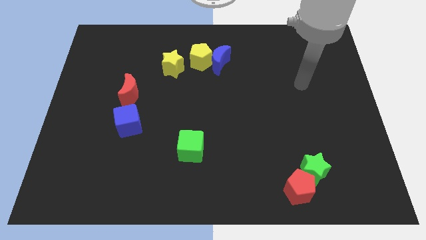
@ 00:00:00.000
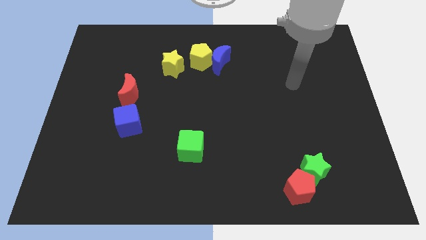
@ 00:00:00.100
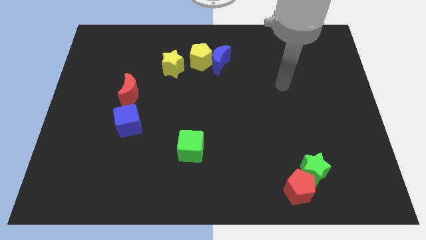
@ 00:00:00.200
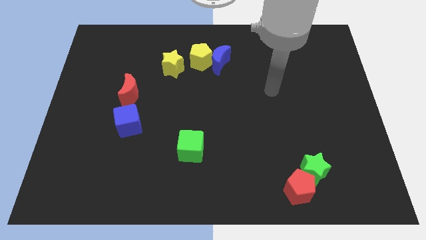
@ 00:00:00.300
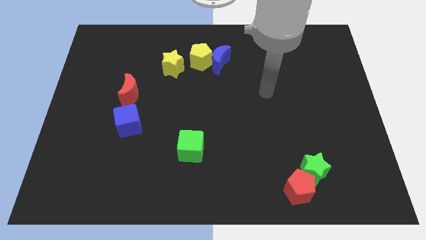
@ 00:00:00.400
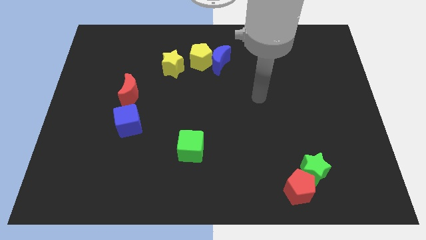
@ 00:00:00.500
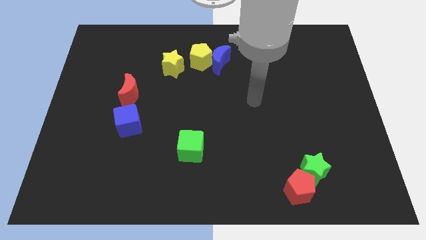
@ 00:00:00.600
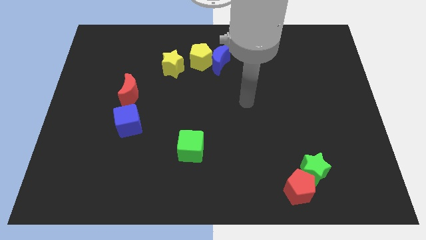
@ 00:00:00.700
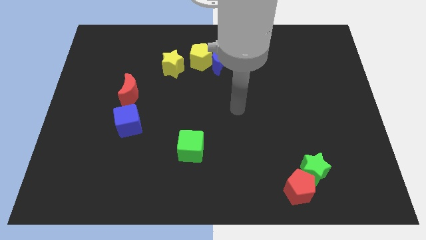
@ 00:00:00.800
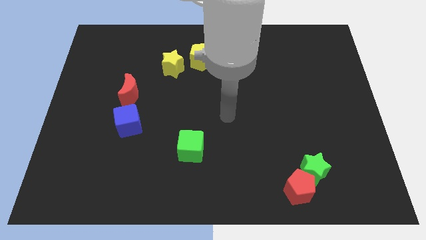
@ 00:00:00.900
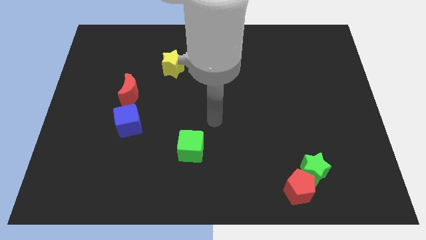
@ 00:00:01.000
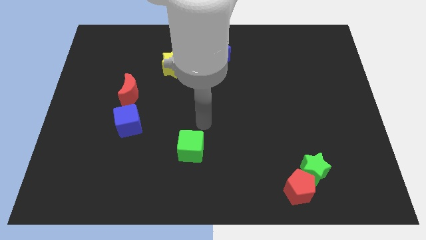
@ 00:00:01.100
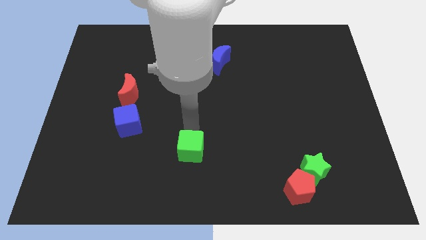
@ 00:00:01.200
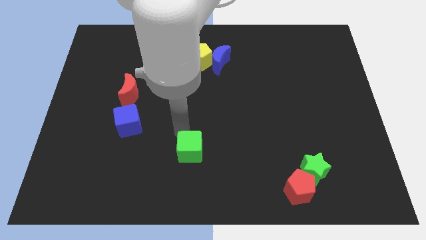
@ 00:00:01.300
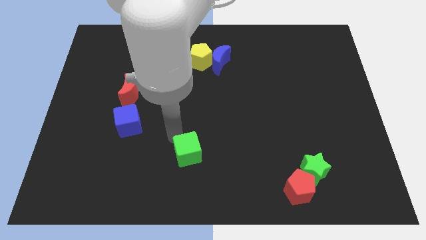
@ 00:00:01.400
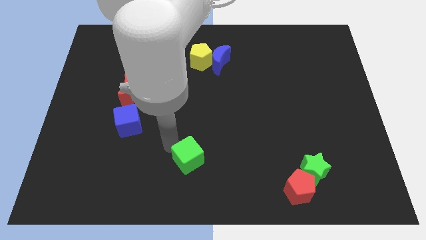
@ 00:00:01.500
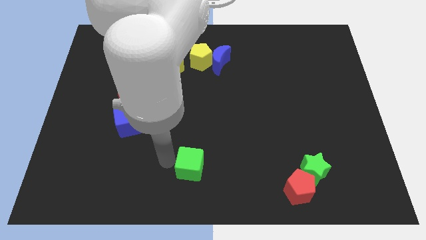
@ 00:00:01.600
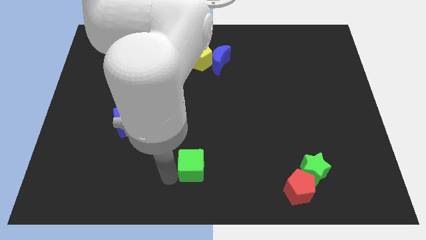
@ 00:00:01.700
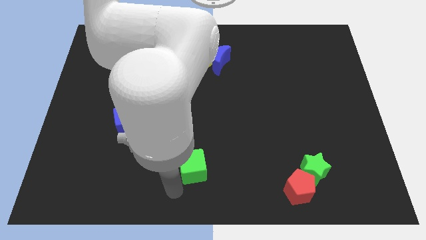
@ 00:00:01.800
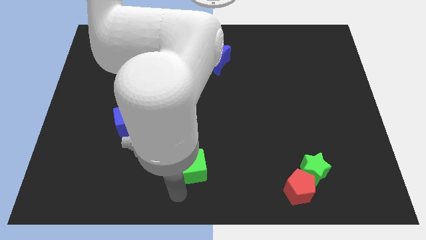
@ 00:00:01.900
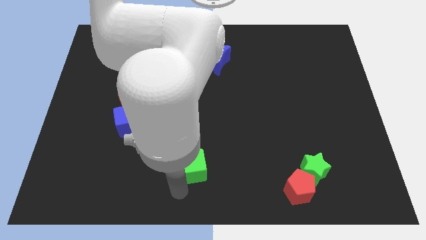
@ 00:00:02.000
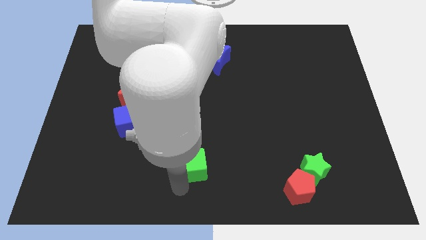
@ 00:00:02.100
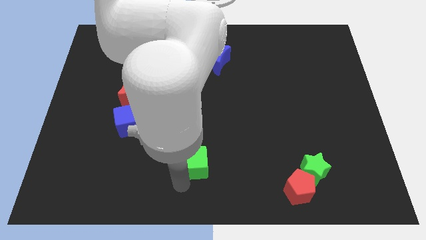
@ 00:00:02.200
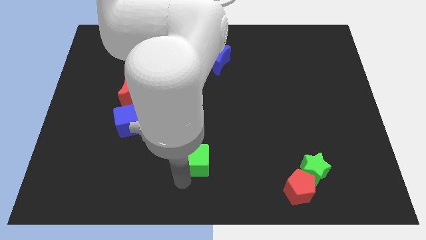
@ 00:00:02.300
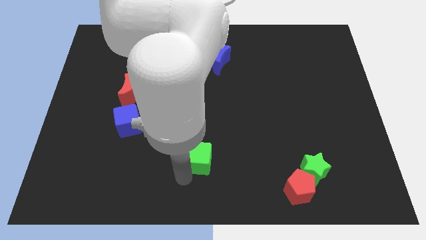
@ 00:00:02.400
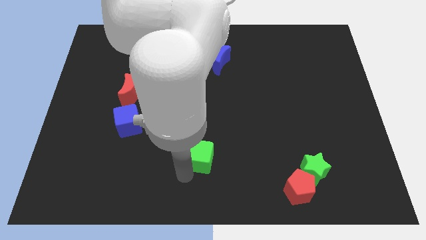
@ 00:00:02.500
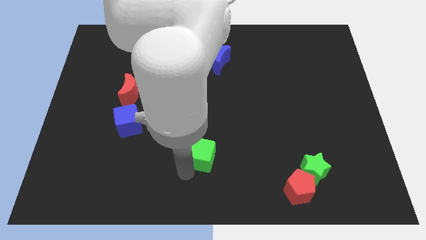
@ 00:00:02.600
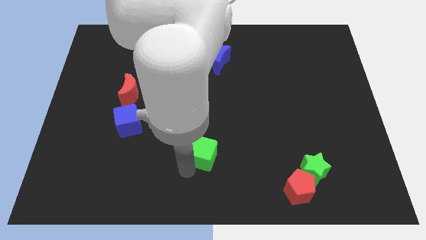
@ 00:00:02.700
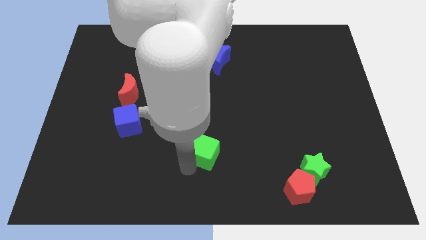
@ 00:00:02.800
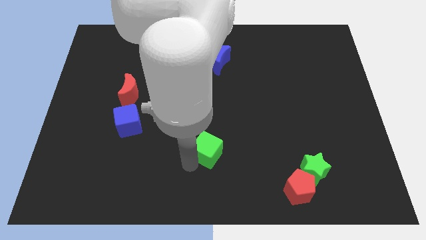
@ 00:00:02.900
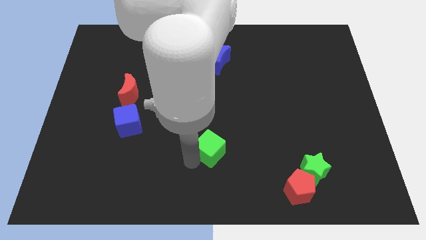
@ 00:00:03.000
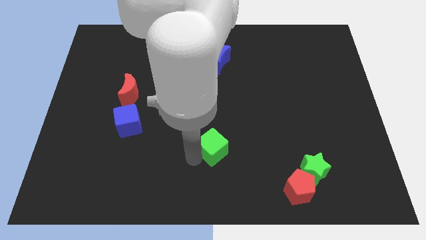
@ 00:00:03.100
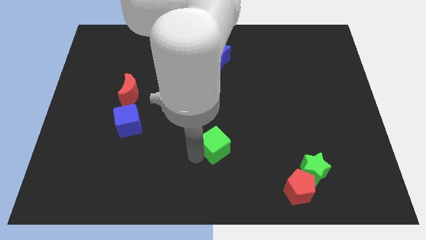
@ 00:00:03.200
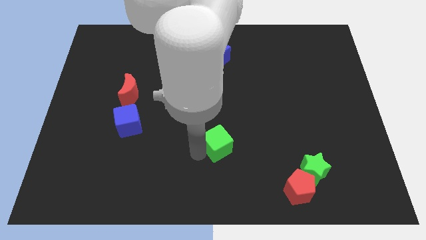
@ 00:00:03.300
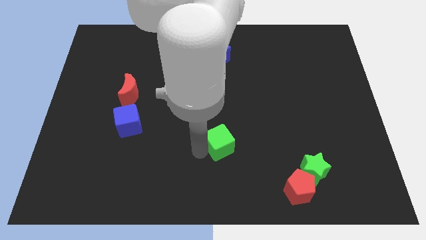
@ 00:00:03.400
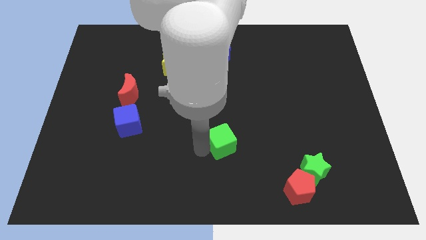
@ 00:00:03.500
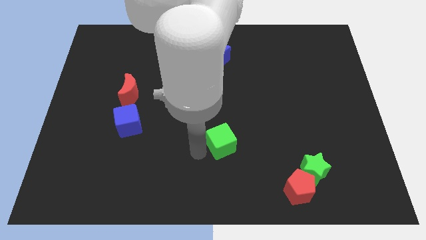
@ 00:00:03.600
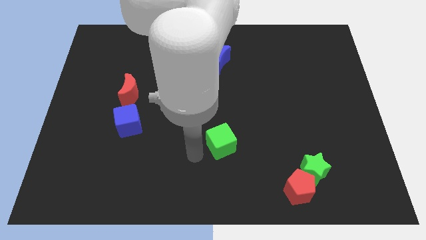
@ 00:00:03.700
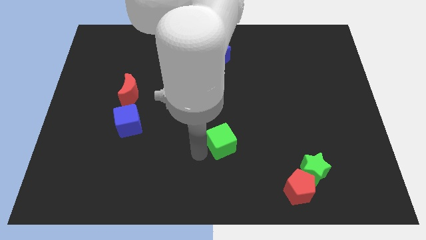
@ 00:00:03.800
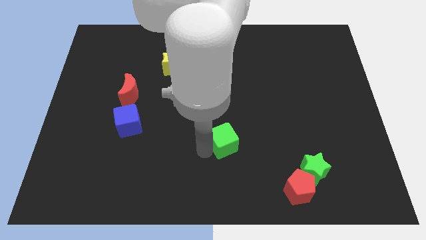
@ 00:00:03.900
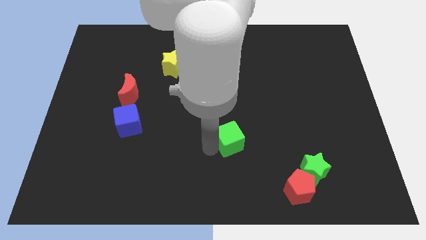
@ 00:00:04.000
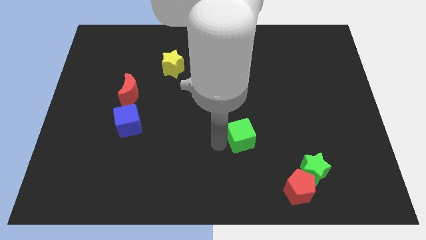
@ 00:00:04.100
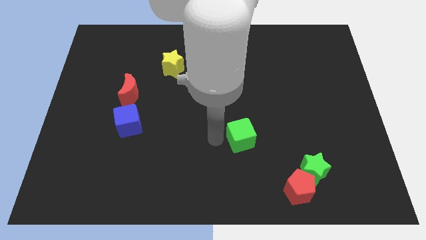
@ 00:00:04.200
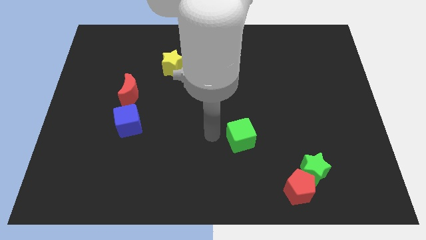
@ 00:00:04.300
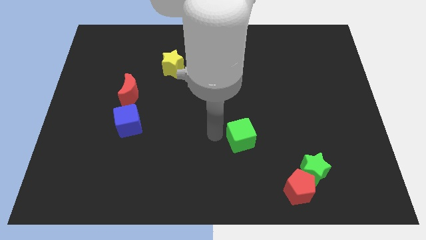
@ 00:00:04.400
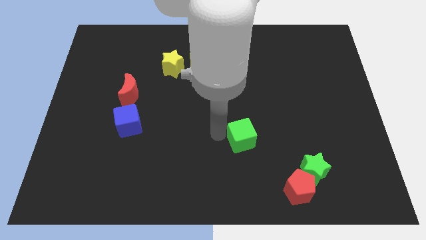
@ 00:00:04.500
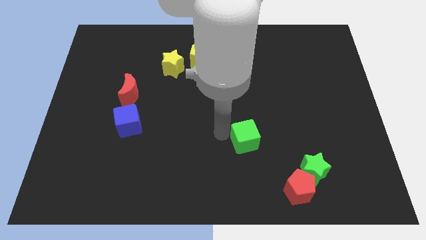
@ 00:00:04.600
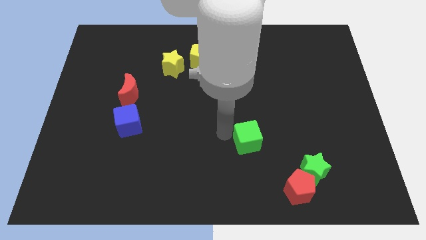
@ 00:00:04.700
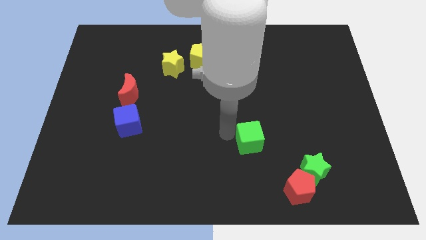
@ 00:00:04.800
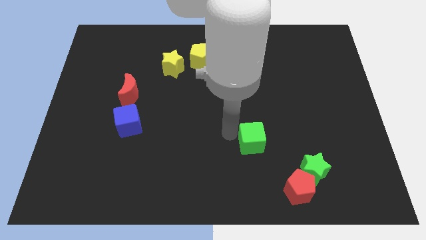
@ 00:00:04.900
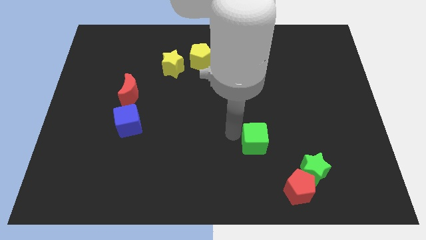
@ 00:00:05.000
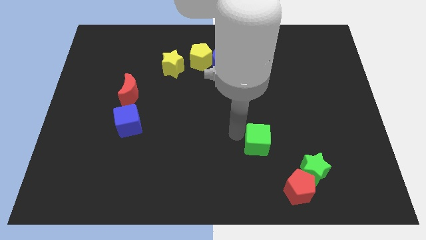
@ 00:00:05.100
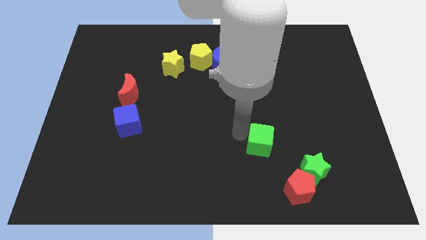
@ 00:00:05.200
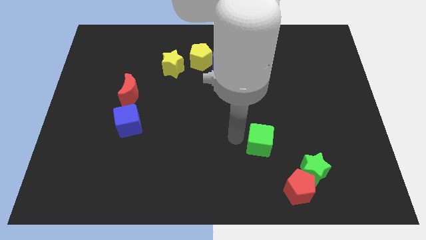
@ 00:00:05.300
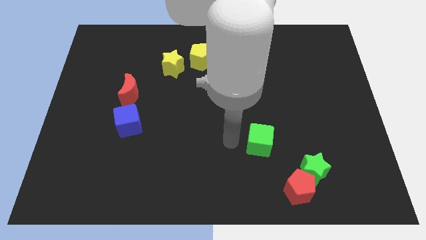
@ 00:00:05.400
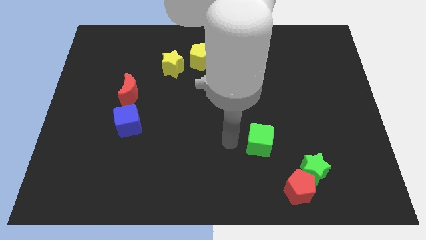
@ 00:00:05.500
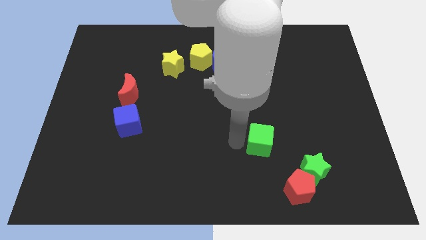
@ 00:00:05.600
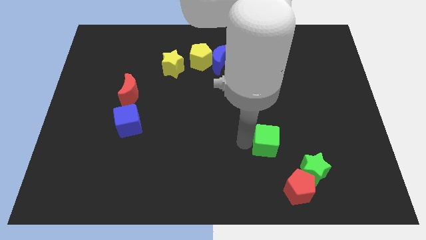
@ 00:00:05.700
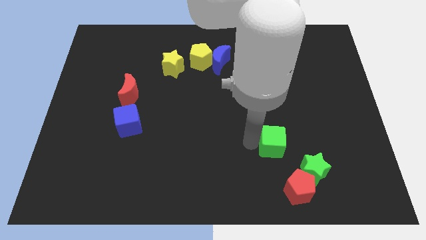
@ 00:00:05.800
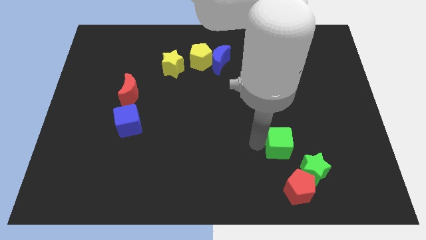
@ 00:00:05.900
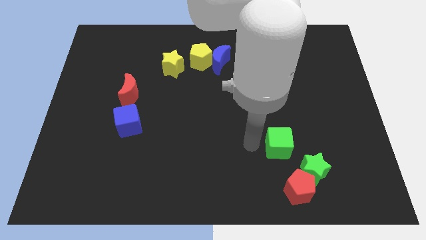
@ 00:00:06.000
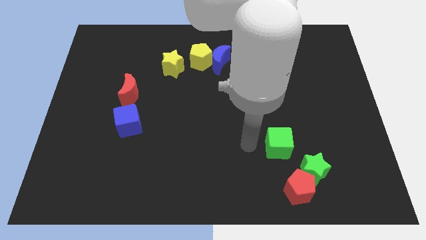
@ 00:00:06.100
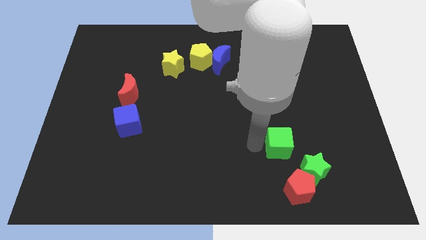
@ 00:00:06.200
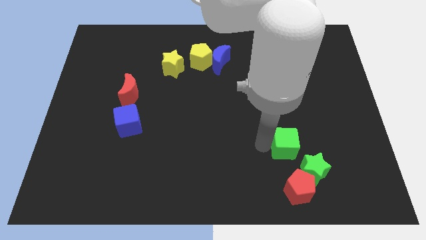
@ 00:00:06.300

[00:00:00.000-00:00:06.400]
push the green cube right

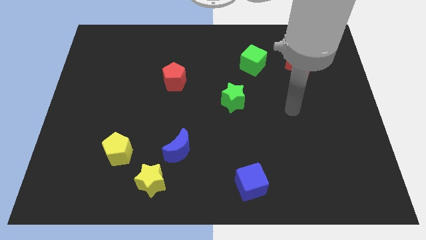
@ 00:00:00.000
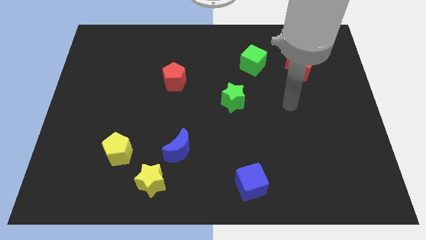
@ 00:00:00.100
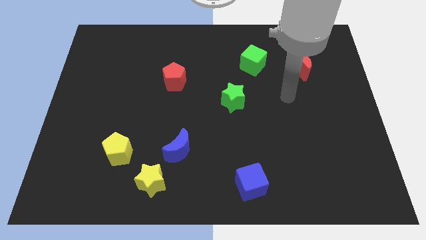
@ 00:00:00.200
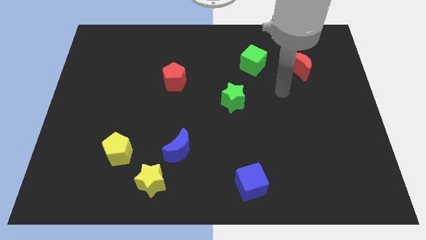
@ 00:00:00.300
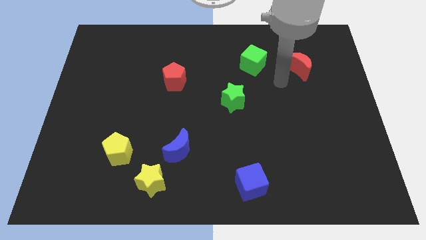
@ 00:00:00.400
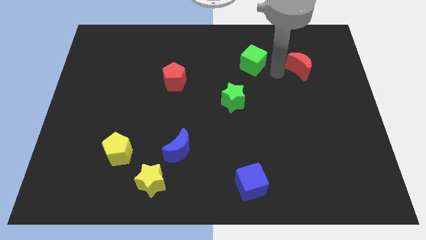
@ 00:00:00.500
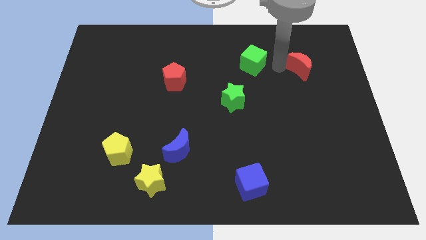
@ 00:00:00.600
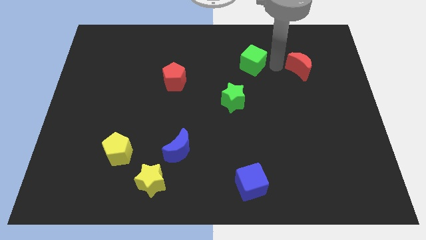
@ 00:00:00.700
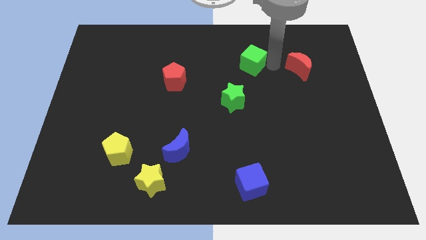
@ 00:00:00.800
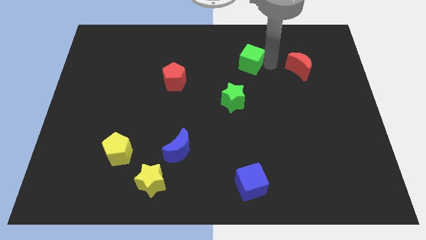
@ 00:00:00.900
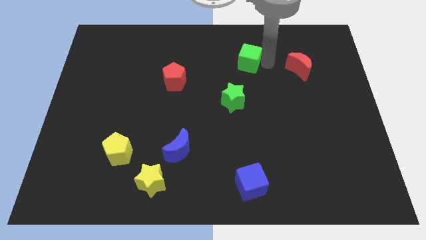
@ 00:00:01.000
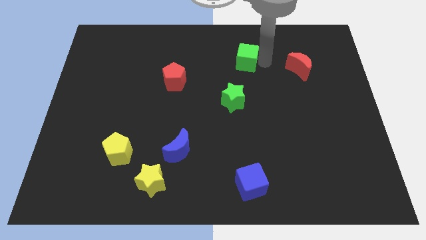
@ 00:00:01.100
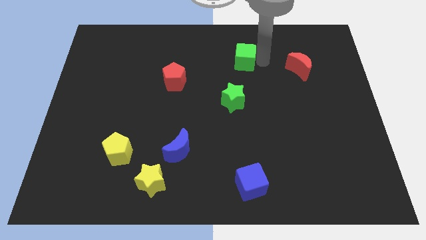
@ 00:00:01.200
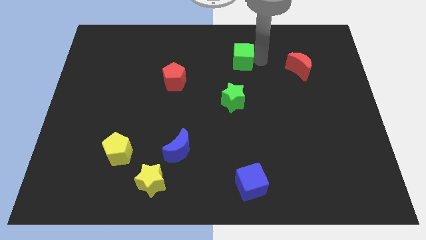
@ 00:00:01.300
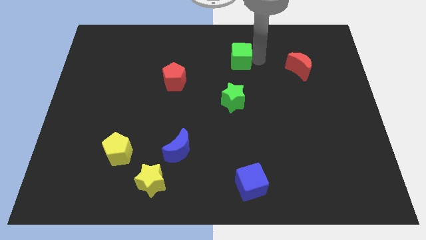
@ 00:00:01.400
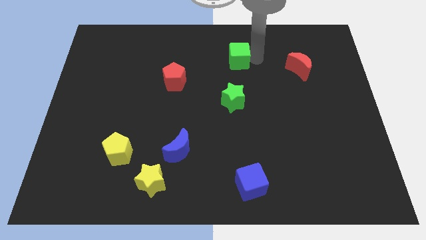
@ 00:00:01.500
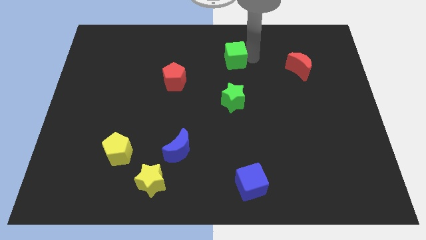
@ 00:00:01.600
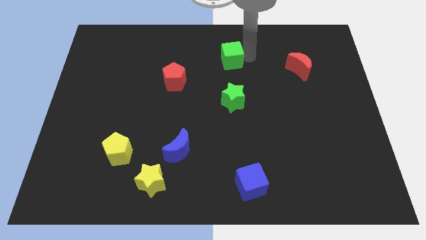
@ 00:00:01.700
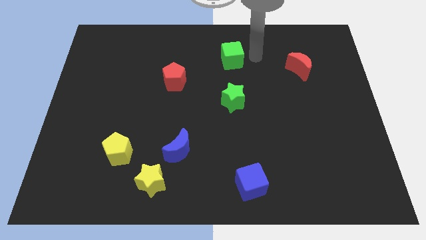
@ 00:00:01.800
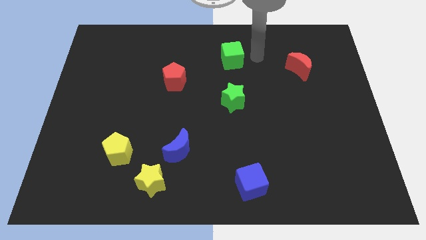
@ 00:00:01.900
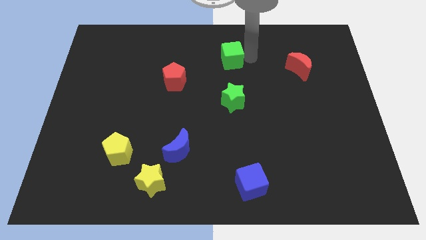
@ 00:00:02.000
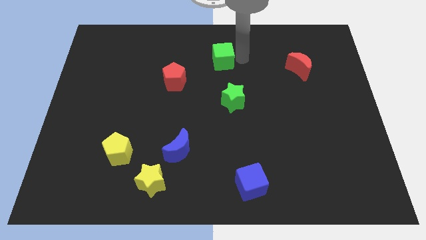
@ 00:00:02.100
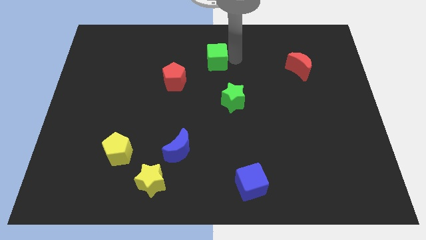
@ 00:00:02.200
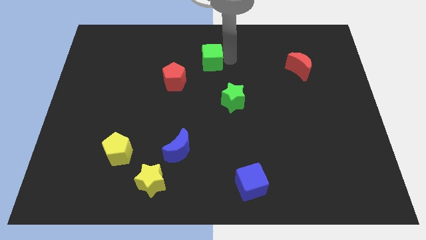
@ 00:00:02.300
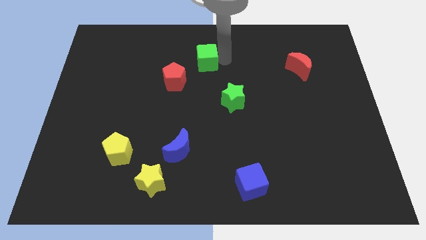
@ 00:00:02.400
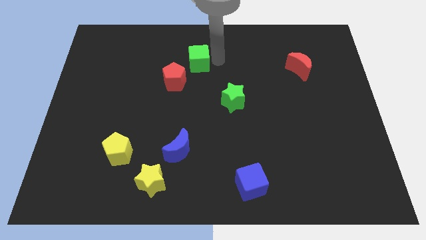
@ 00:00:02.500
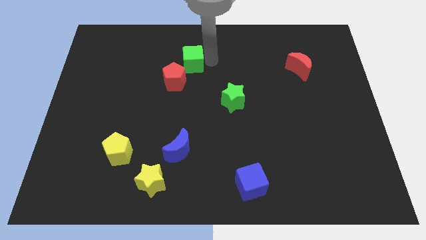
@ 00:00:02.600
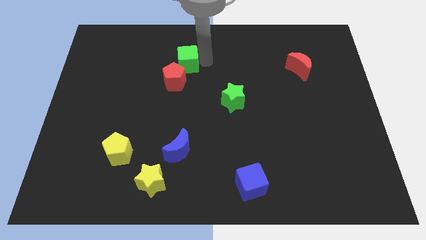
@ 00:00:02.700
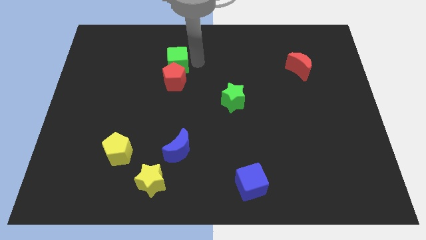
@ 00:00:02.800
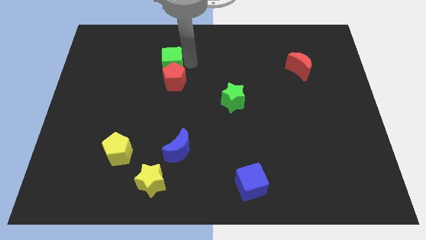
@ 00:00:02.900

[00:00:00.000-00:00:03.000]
slide the green cube left
